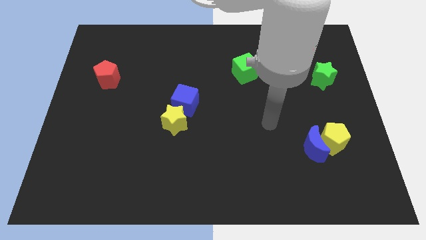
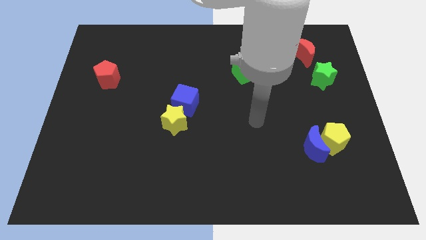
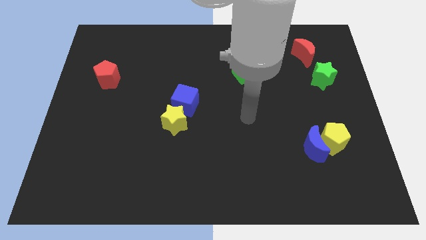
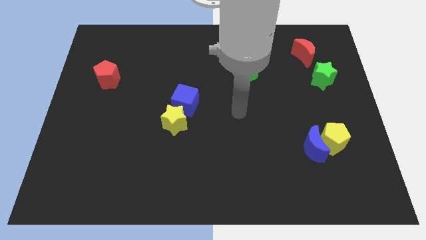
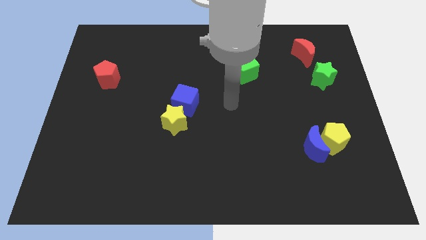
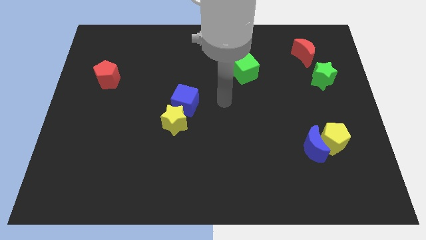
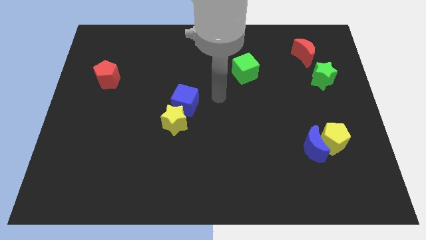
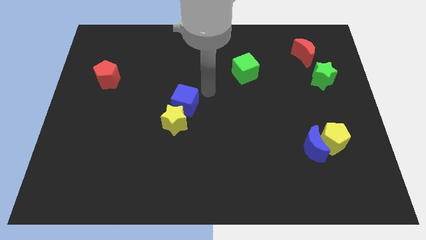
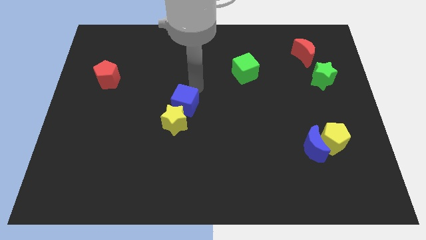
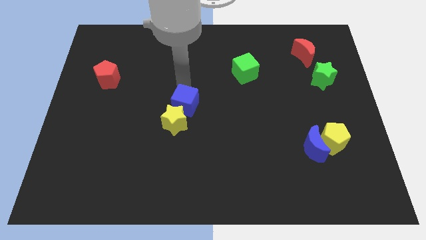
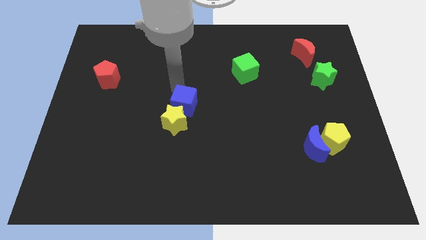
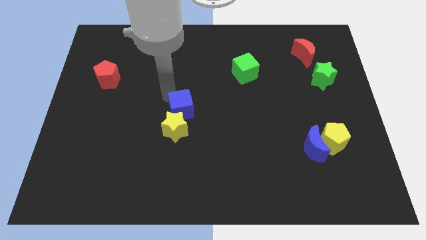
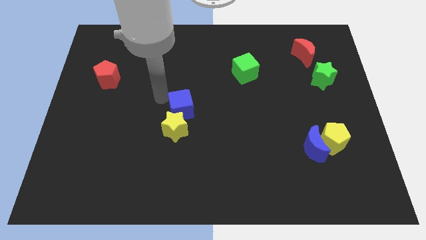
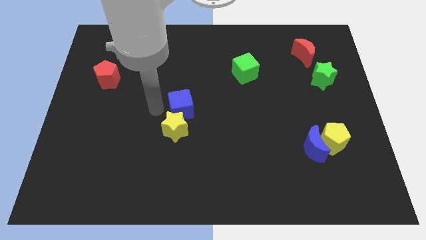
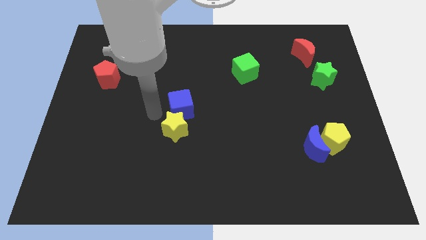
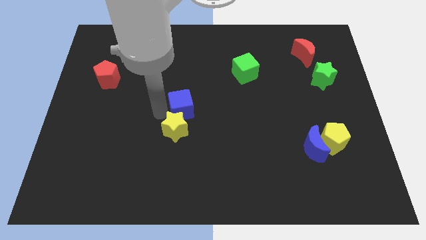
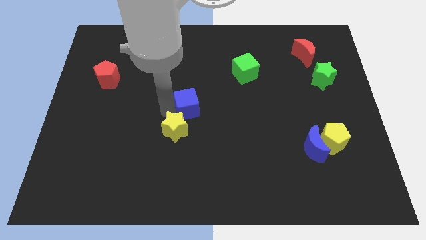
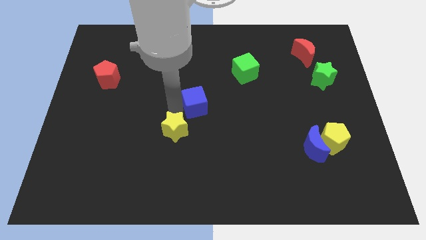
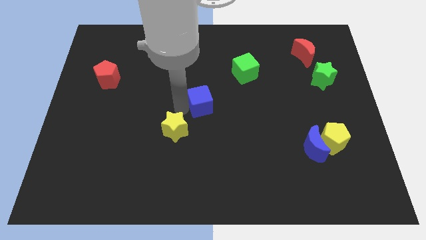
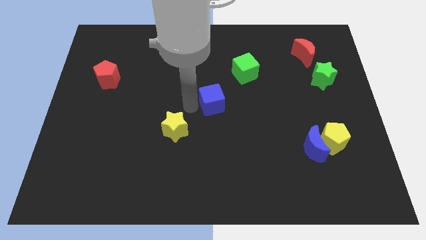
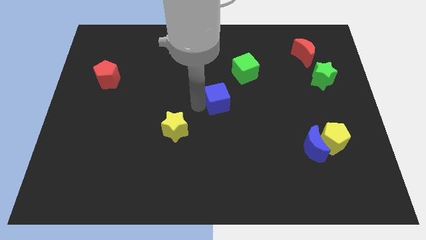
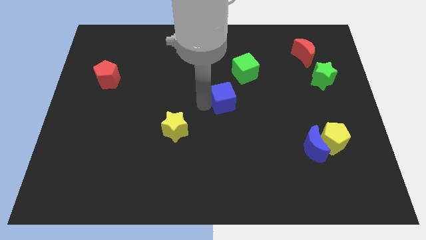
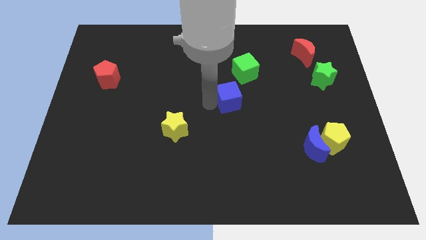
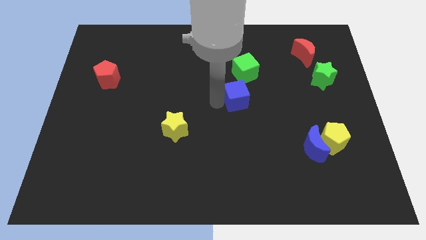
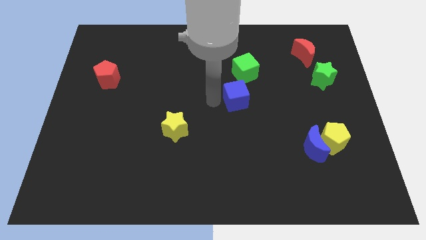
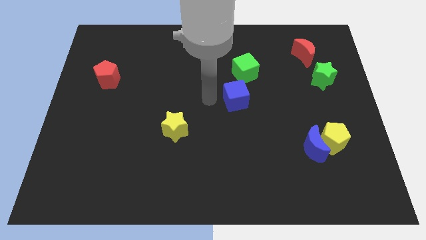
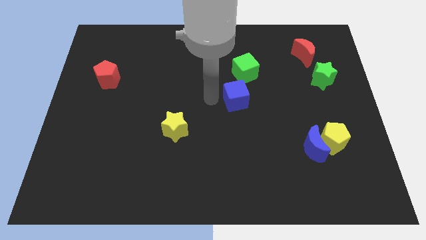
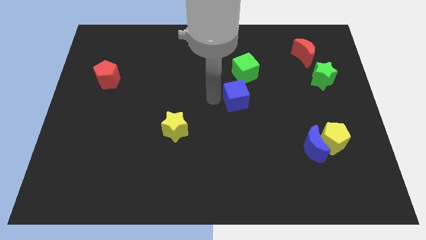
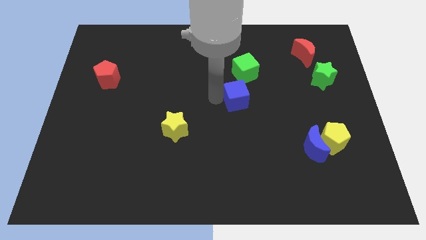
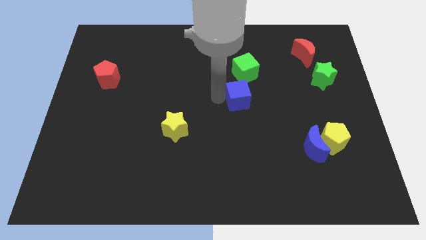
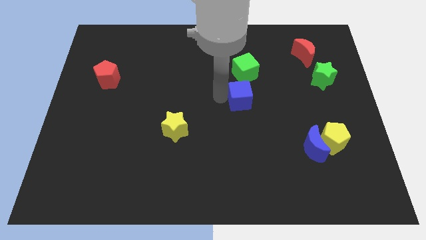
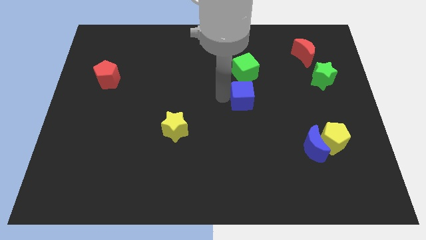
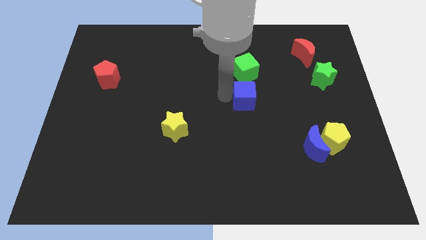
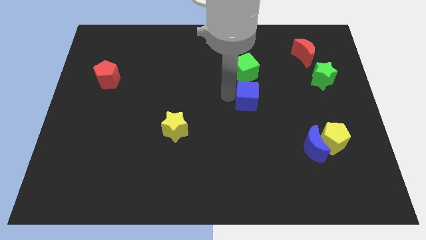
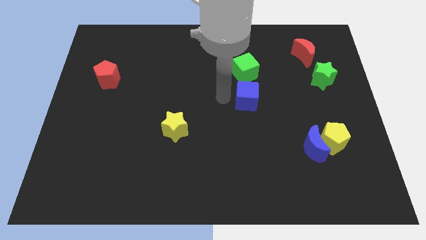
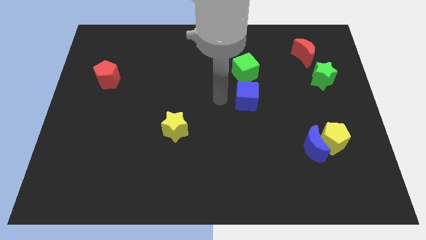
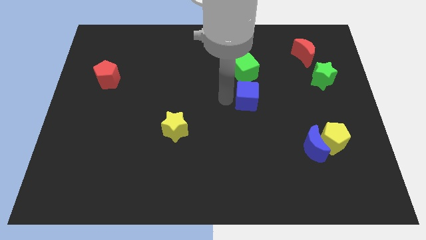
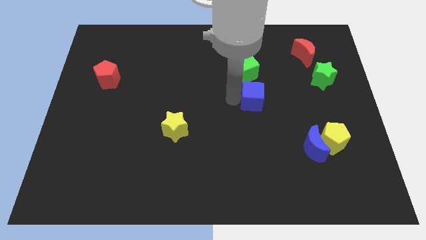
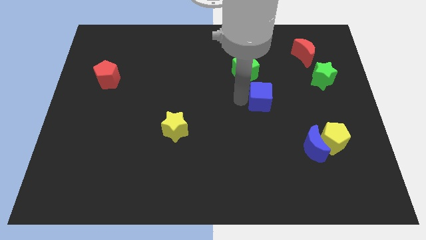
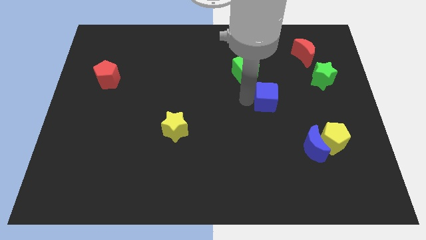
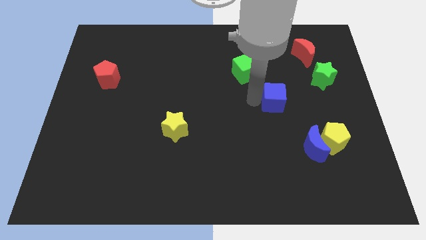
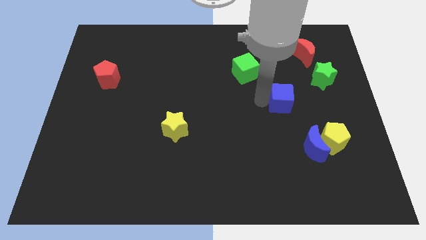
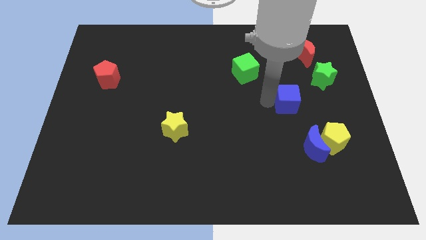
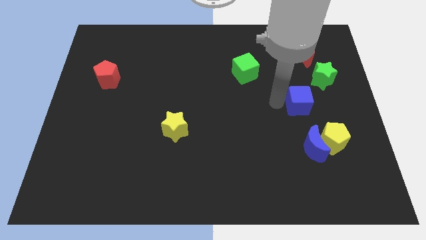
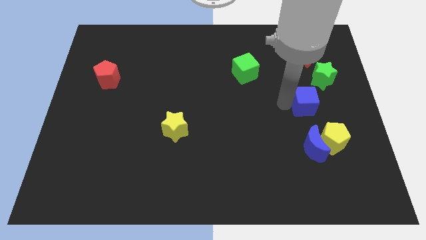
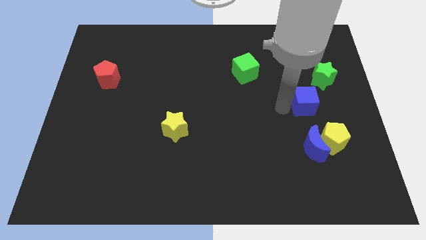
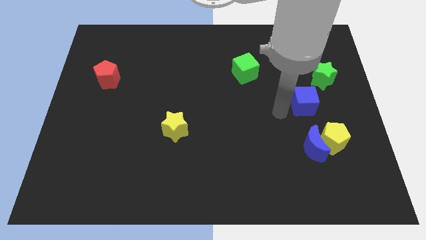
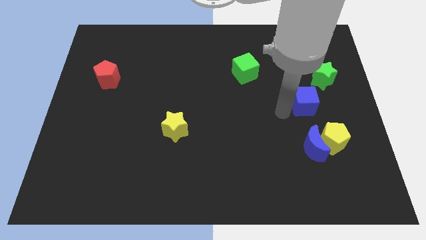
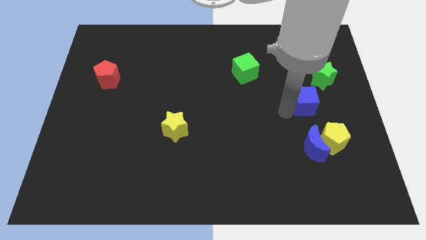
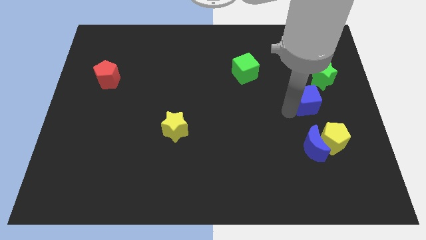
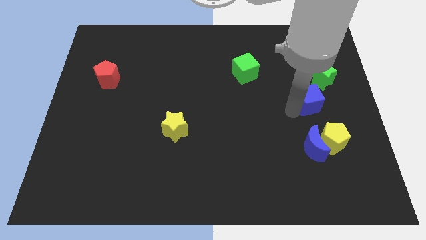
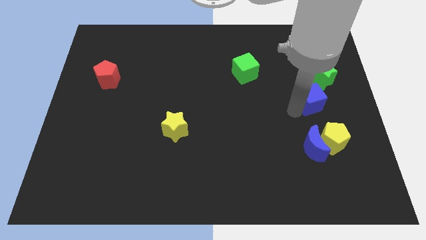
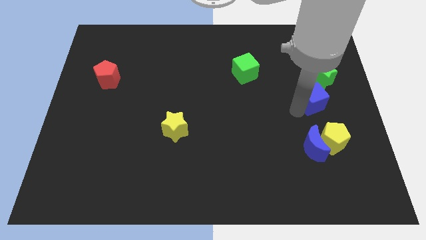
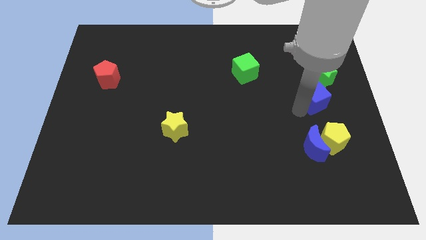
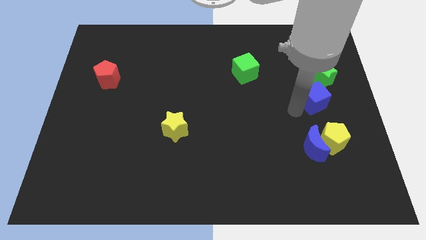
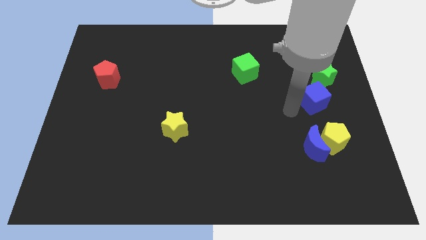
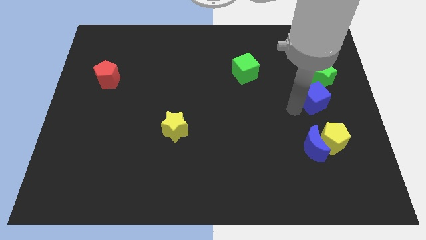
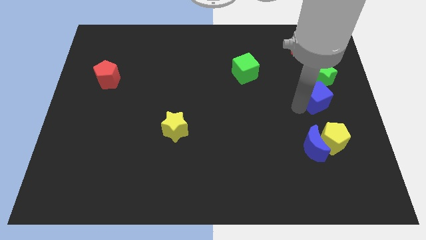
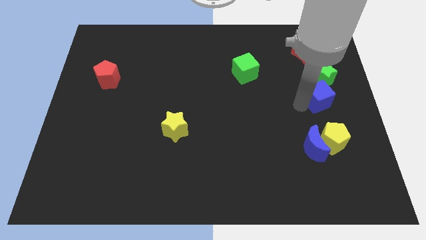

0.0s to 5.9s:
put the blue cube to the right side of the board

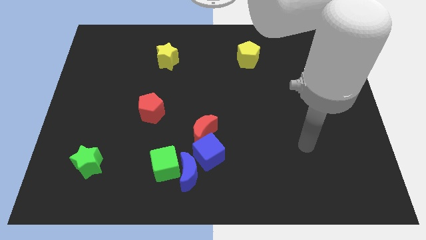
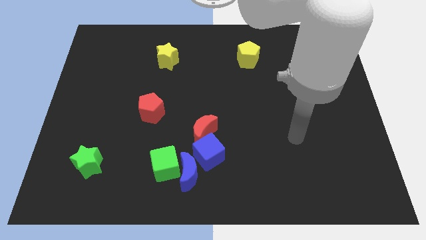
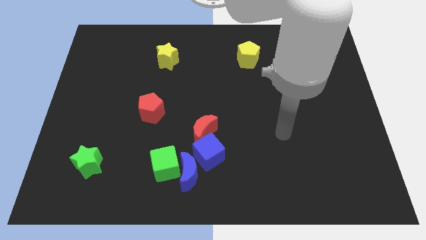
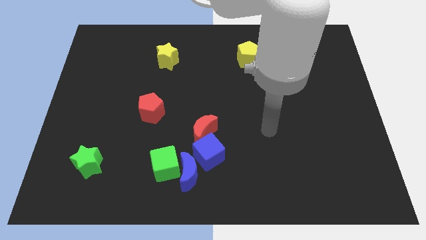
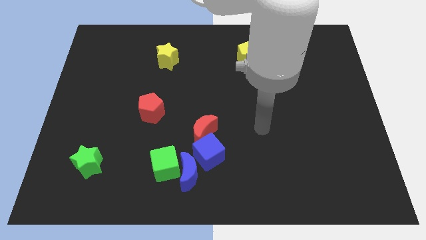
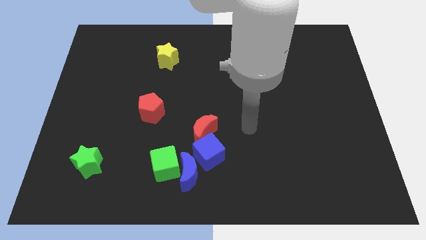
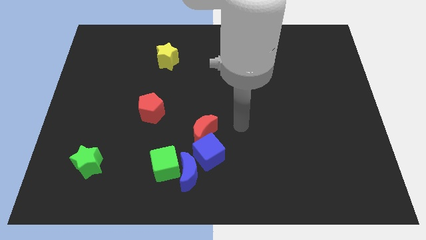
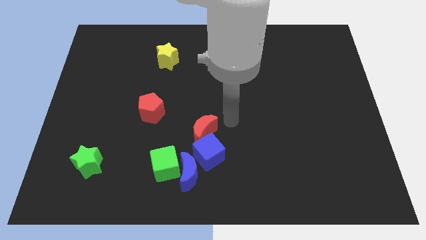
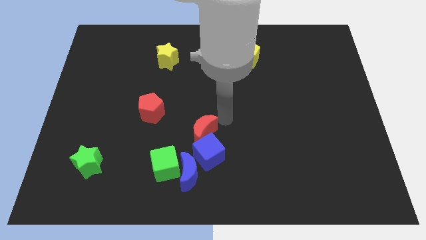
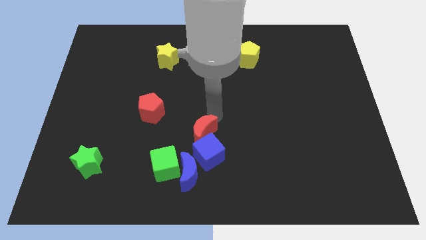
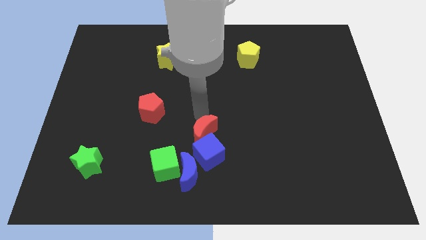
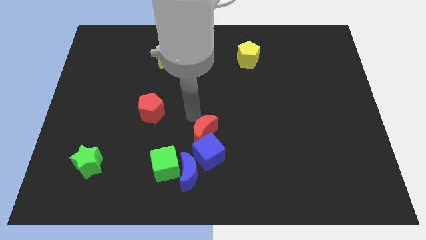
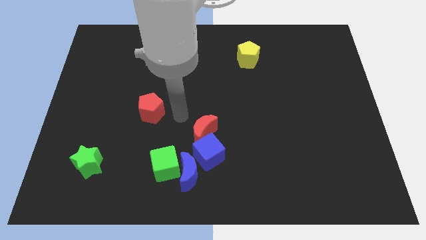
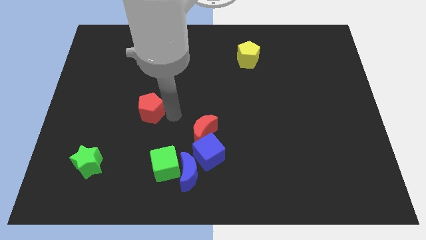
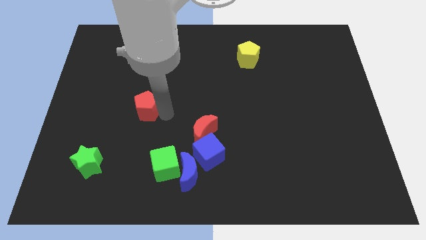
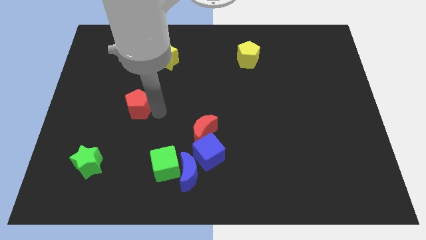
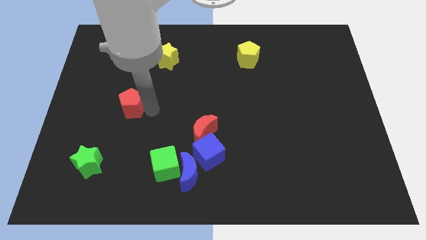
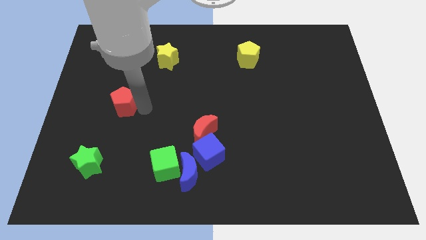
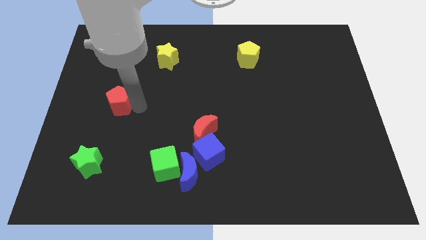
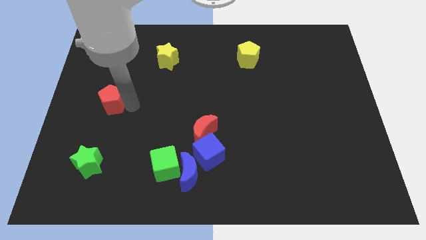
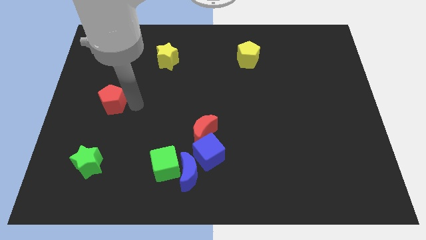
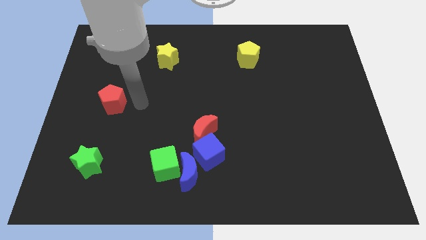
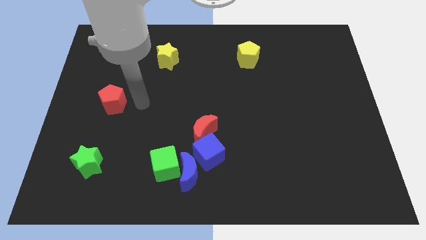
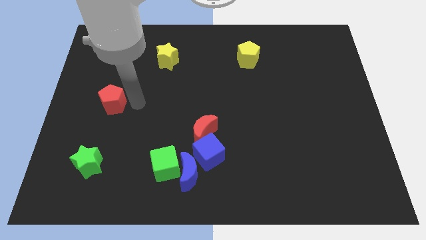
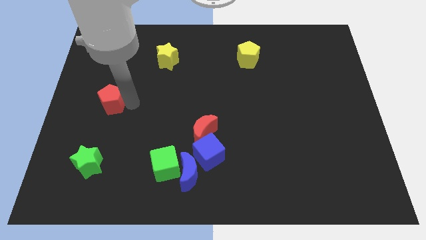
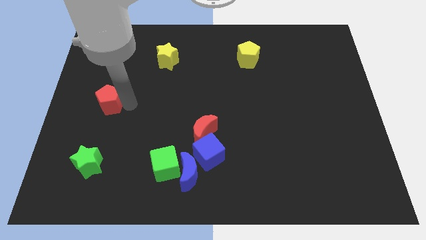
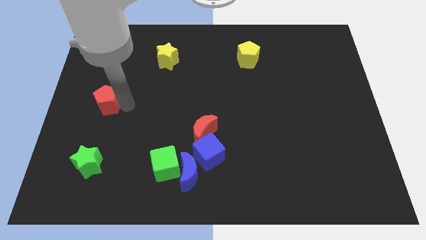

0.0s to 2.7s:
move the red pentagon to the left side
